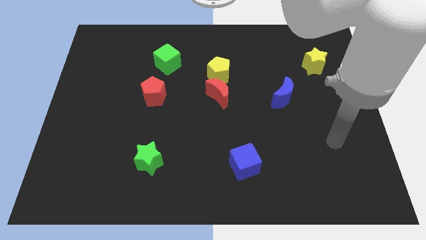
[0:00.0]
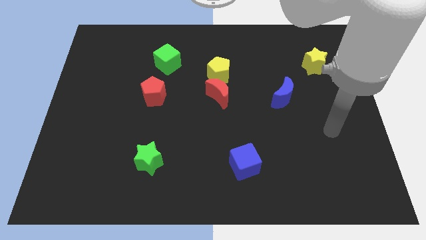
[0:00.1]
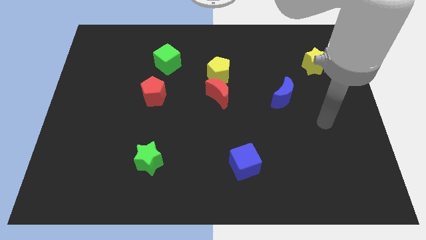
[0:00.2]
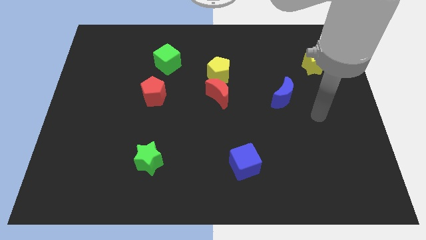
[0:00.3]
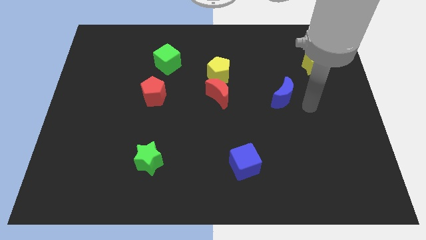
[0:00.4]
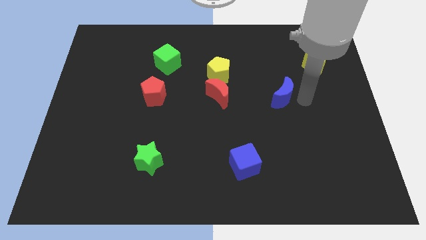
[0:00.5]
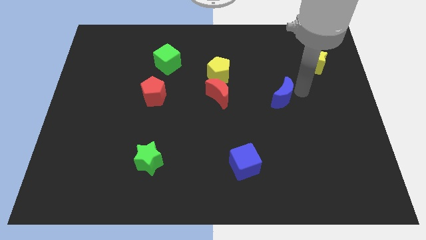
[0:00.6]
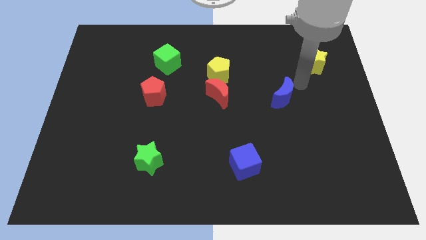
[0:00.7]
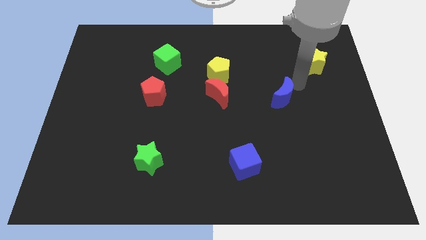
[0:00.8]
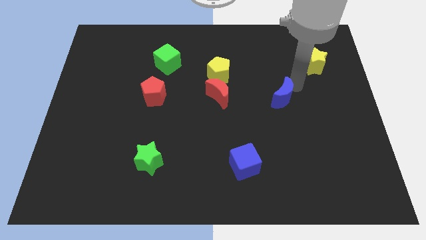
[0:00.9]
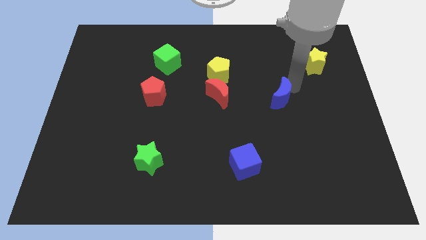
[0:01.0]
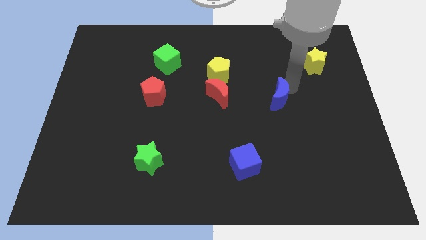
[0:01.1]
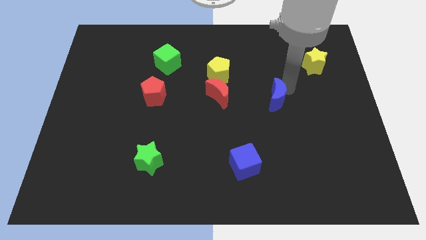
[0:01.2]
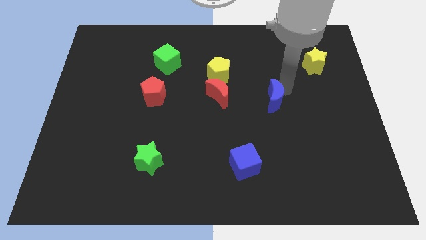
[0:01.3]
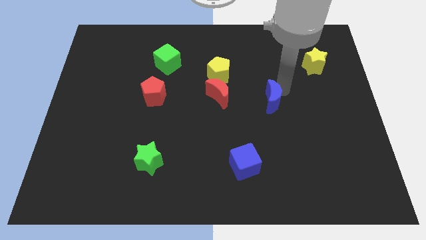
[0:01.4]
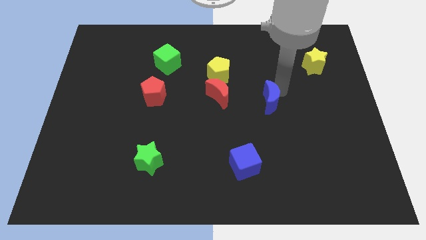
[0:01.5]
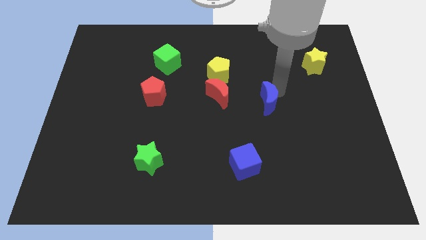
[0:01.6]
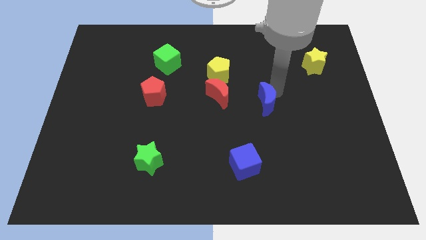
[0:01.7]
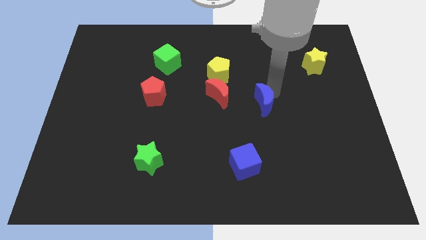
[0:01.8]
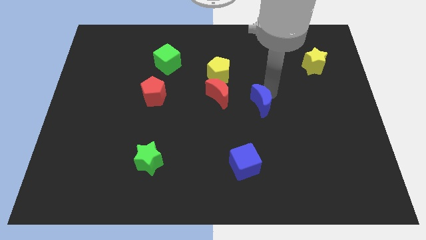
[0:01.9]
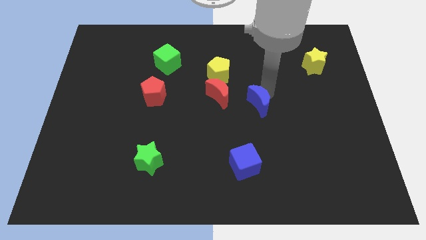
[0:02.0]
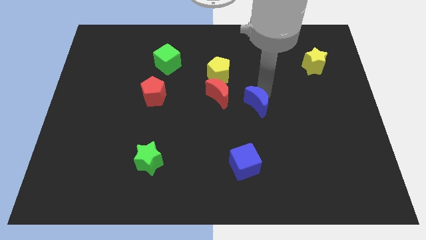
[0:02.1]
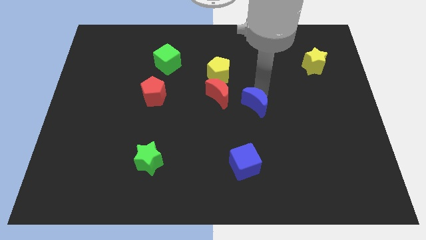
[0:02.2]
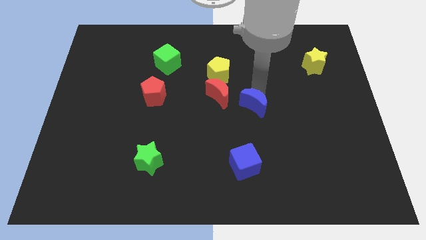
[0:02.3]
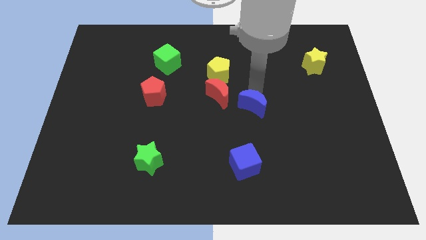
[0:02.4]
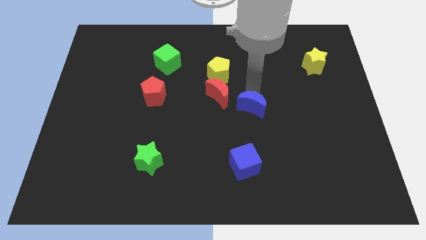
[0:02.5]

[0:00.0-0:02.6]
slide the blue moon down and then left a little bit

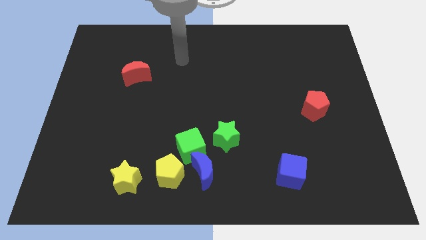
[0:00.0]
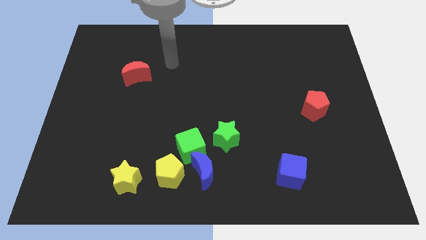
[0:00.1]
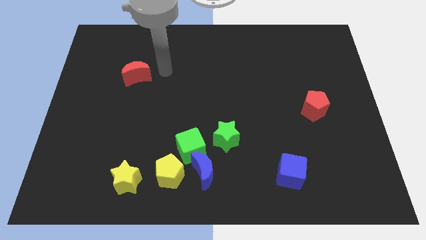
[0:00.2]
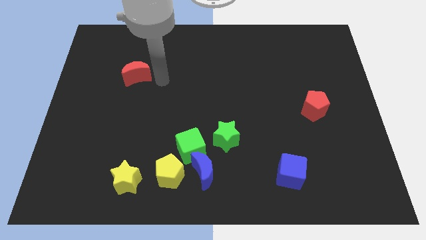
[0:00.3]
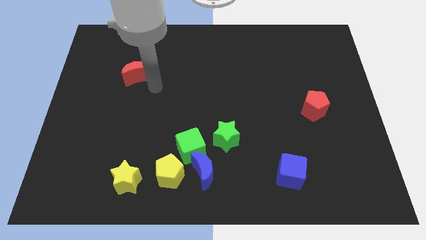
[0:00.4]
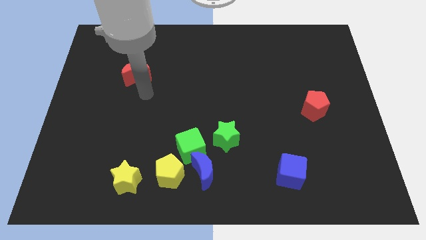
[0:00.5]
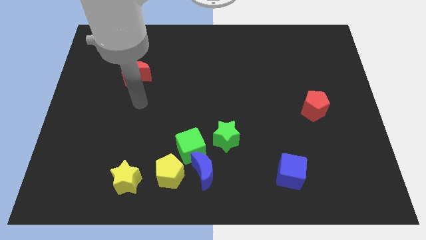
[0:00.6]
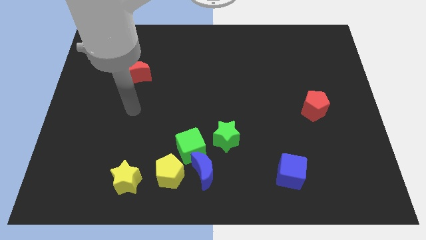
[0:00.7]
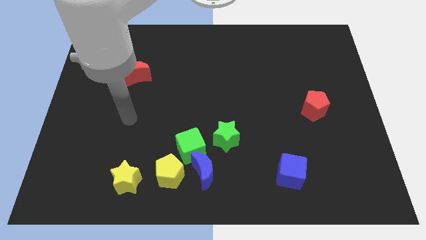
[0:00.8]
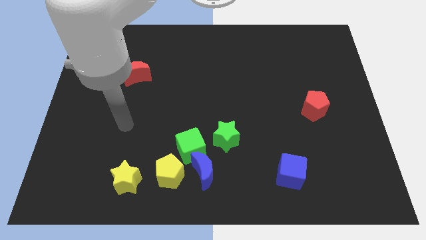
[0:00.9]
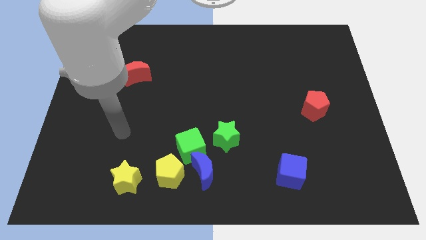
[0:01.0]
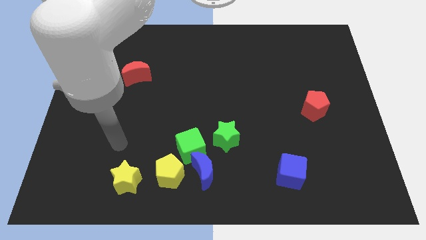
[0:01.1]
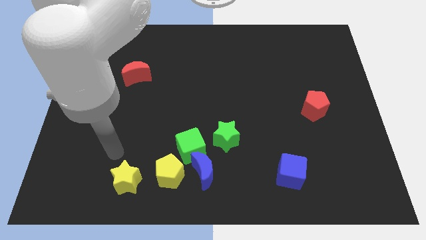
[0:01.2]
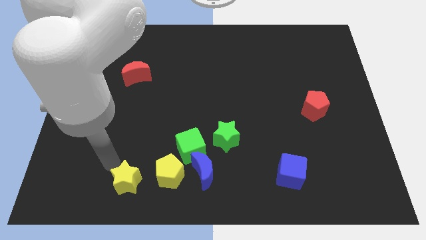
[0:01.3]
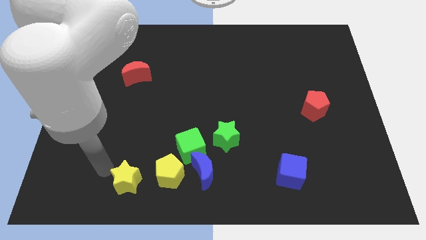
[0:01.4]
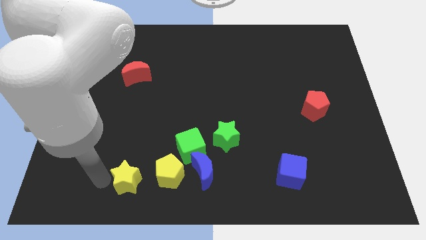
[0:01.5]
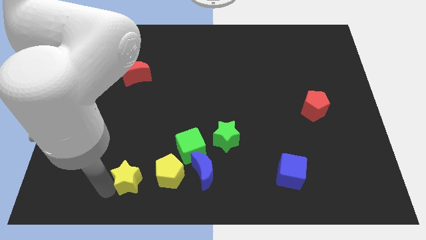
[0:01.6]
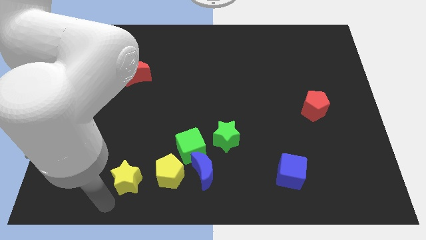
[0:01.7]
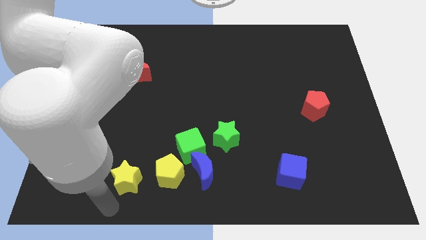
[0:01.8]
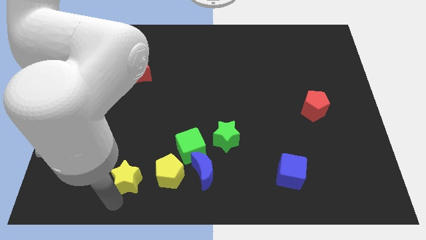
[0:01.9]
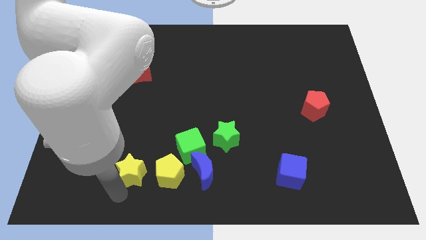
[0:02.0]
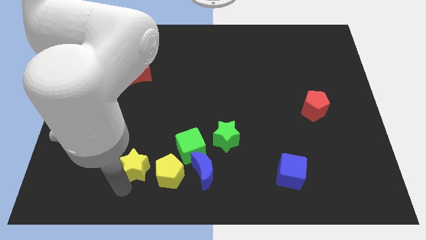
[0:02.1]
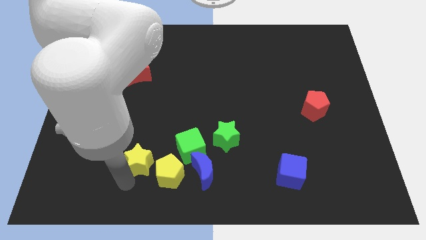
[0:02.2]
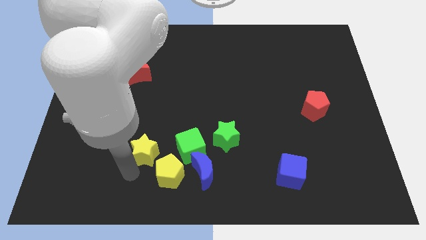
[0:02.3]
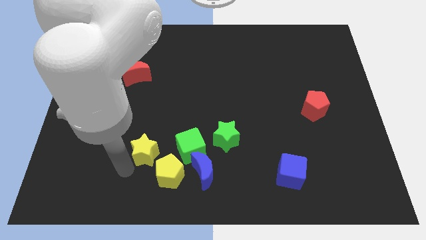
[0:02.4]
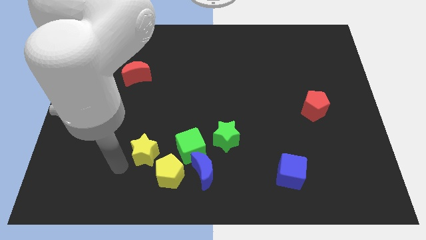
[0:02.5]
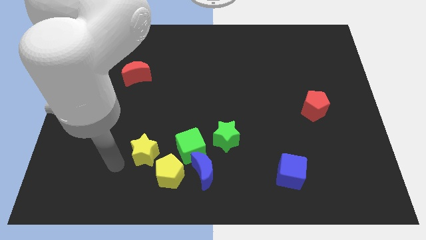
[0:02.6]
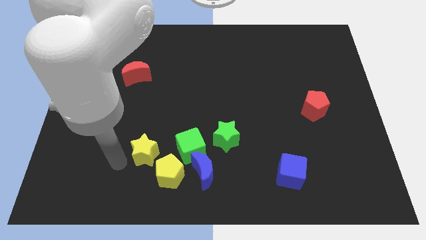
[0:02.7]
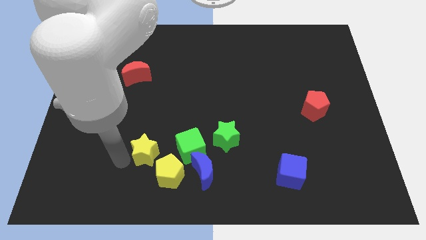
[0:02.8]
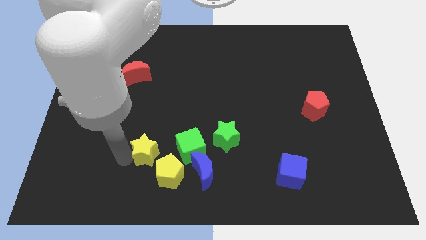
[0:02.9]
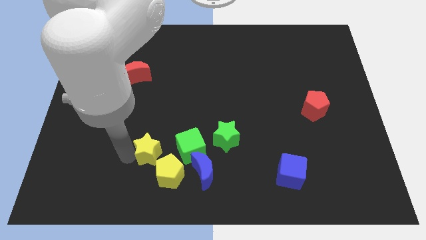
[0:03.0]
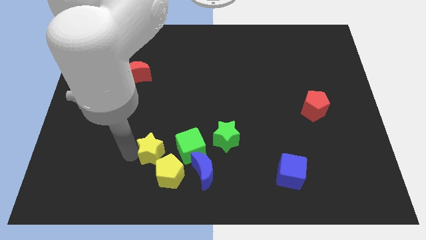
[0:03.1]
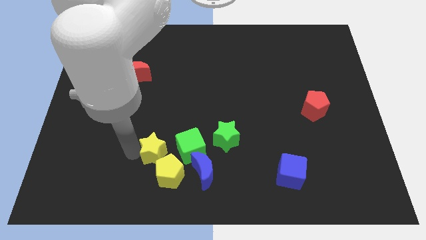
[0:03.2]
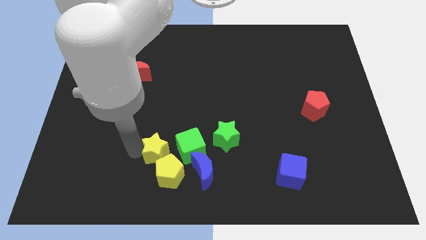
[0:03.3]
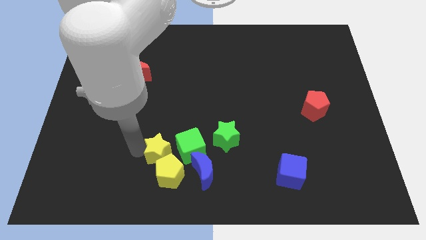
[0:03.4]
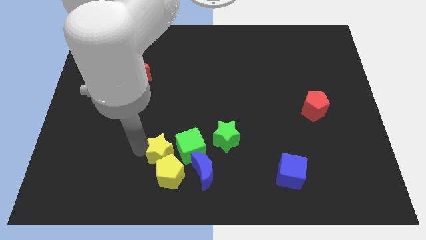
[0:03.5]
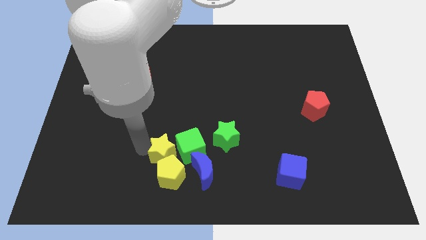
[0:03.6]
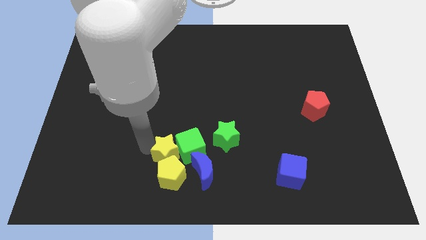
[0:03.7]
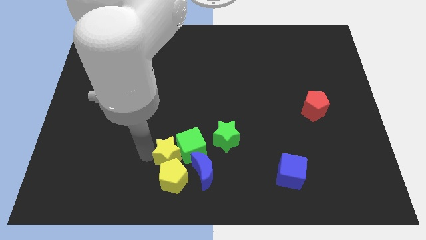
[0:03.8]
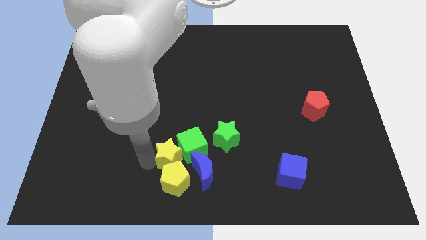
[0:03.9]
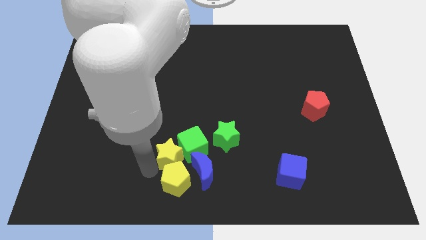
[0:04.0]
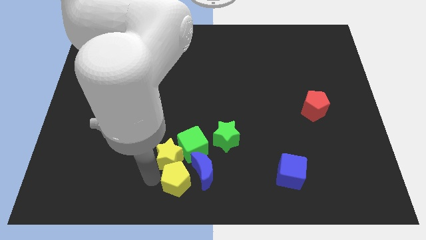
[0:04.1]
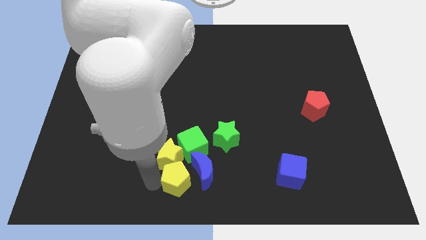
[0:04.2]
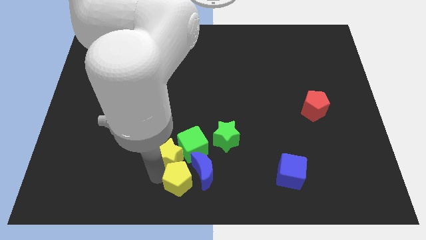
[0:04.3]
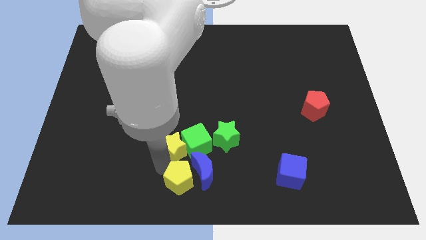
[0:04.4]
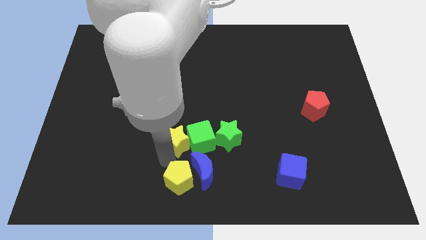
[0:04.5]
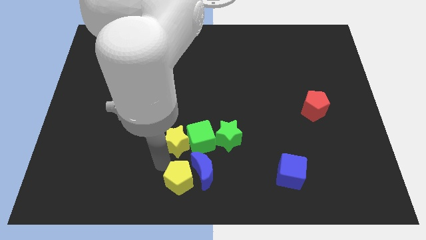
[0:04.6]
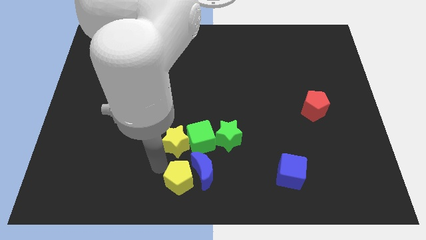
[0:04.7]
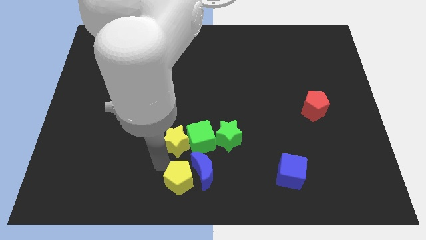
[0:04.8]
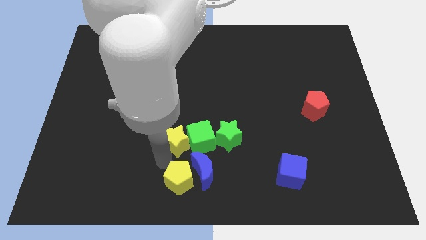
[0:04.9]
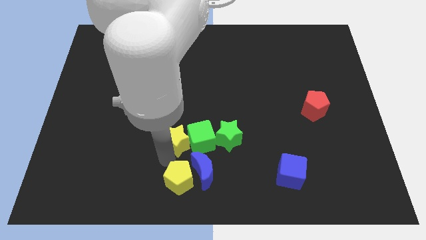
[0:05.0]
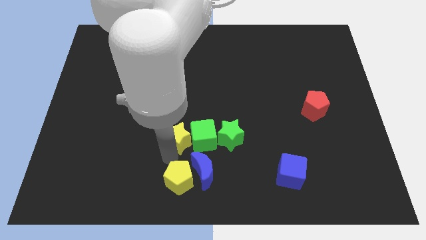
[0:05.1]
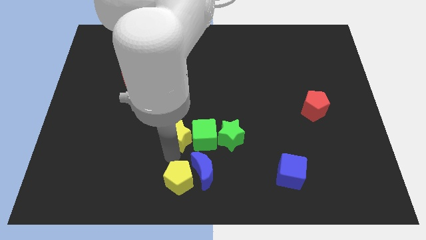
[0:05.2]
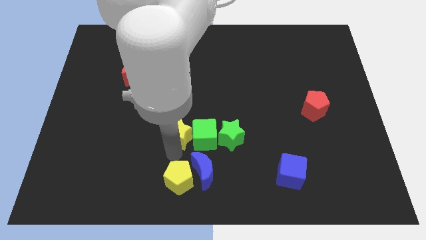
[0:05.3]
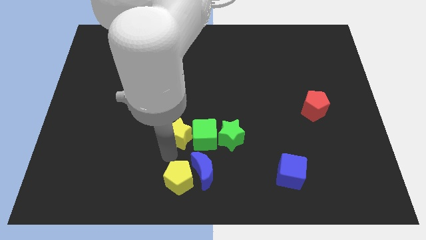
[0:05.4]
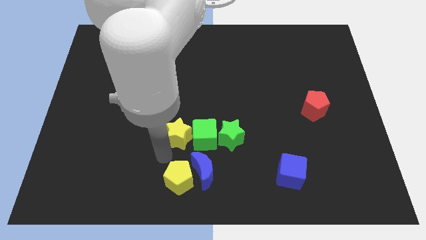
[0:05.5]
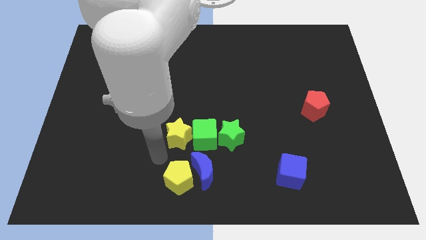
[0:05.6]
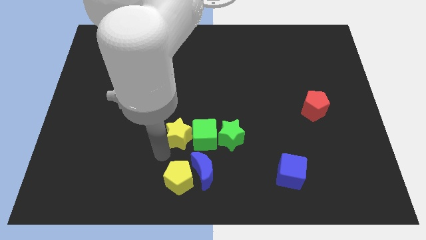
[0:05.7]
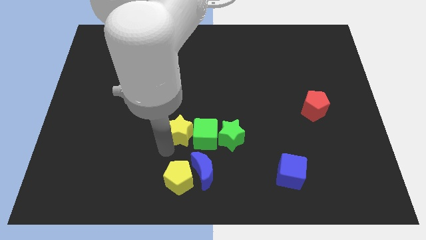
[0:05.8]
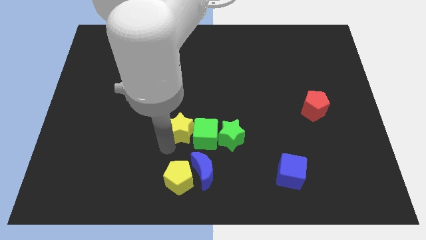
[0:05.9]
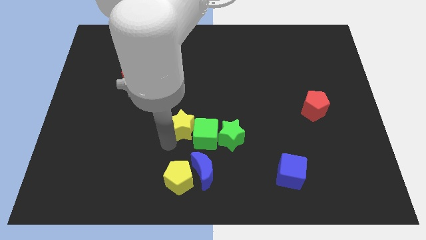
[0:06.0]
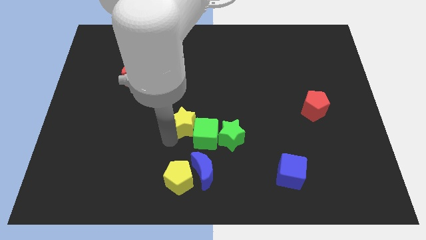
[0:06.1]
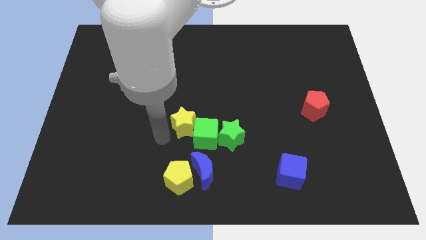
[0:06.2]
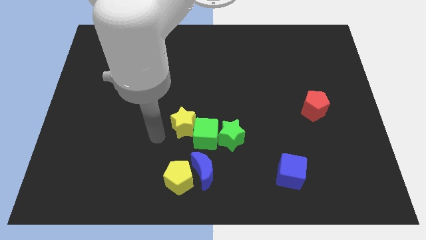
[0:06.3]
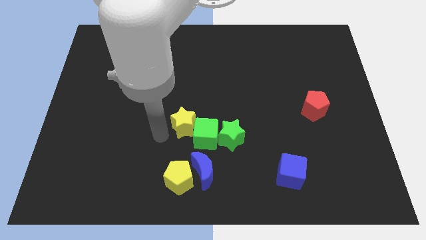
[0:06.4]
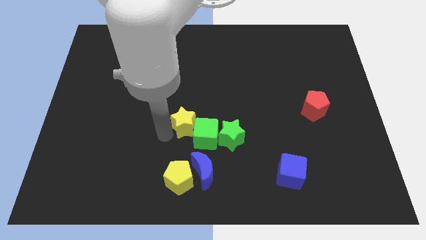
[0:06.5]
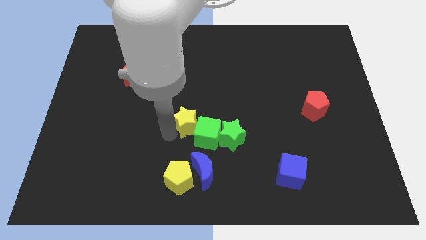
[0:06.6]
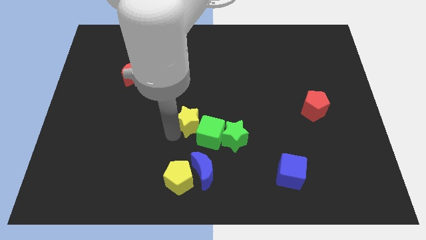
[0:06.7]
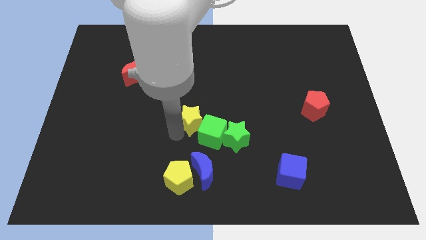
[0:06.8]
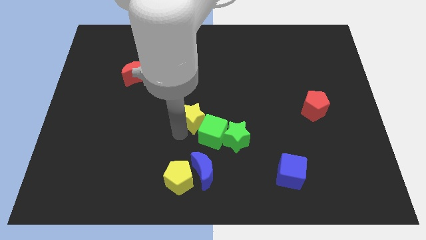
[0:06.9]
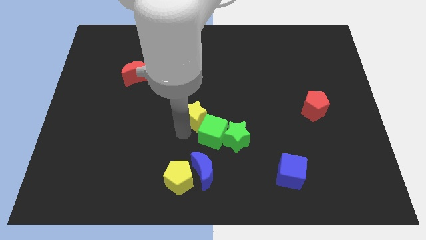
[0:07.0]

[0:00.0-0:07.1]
push the yellow star upwards and to the right diagonally
